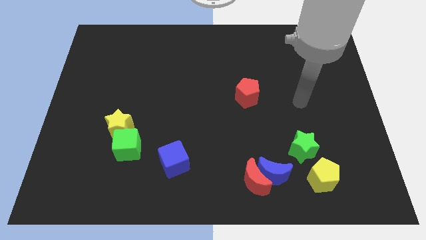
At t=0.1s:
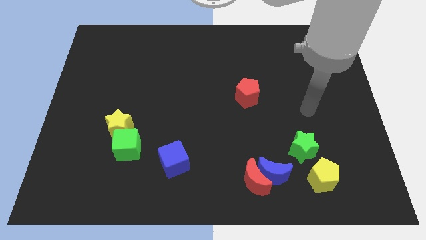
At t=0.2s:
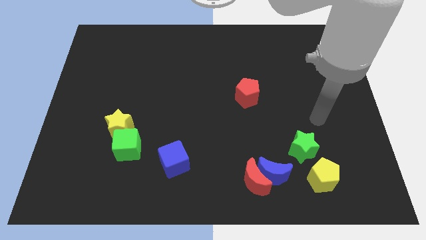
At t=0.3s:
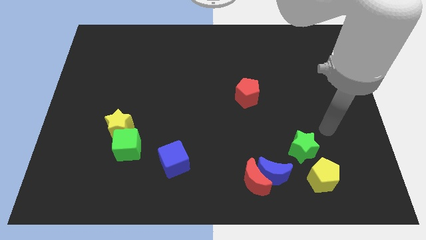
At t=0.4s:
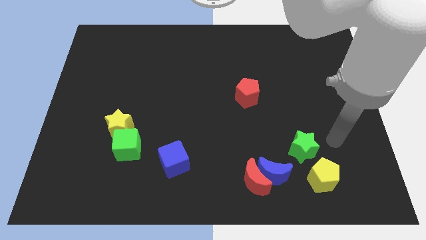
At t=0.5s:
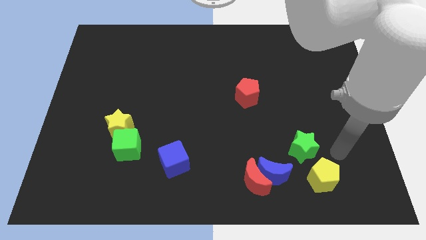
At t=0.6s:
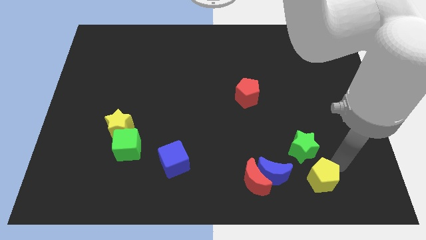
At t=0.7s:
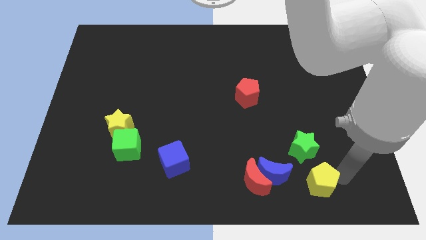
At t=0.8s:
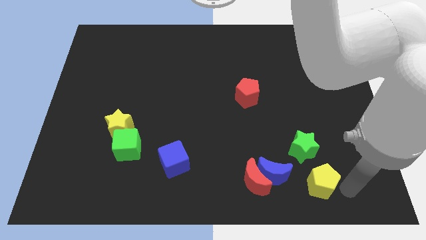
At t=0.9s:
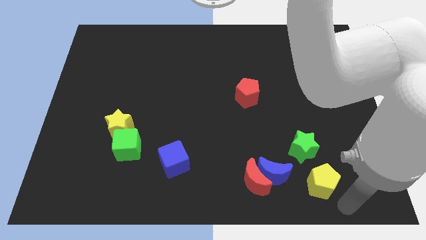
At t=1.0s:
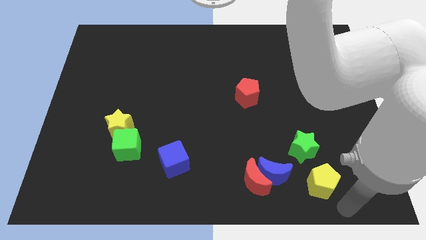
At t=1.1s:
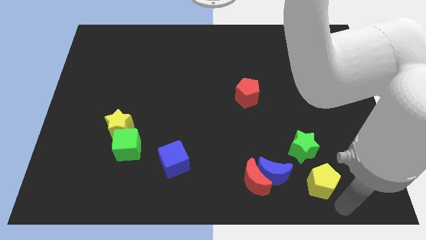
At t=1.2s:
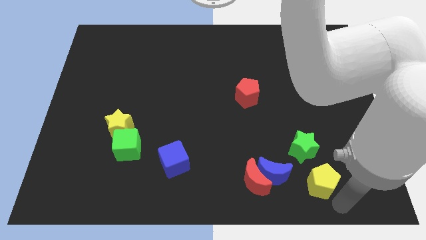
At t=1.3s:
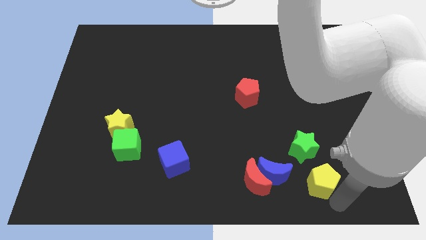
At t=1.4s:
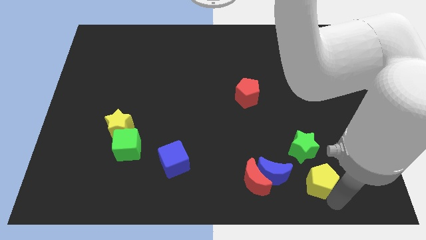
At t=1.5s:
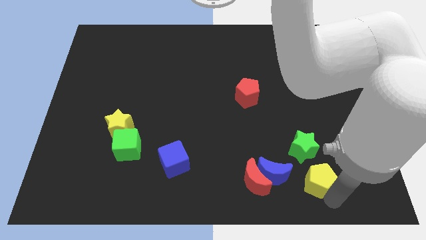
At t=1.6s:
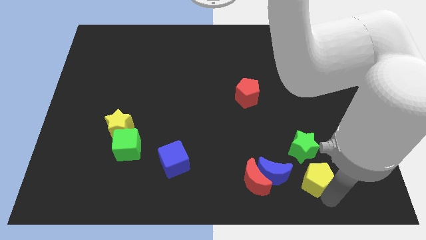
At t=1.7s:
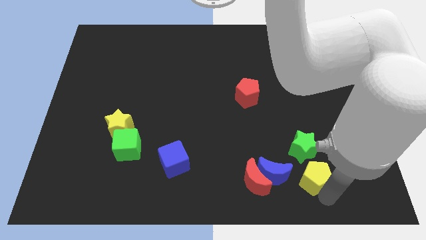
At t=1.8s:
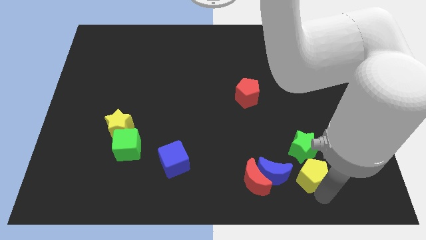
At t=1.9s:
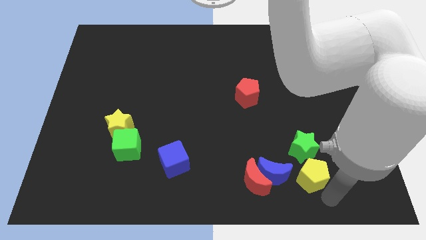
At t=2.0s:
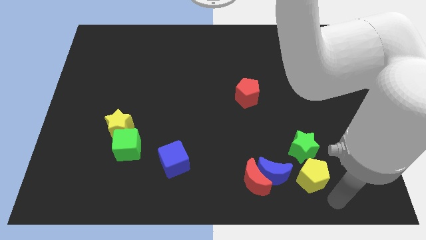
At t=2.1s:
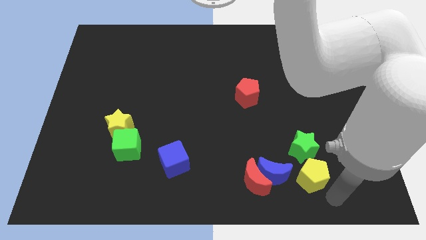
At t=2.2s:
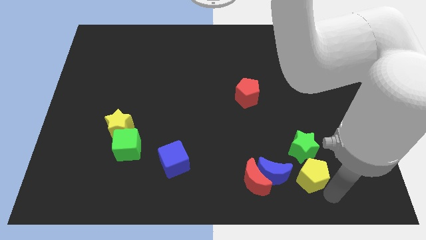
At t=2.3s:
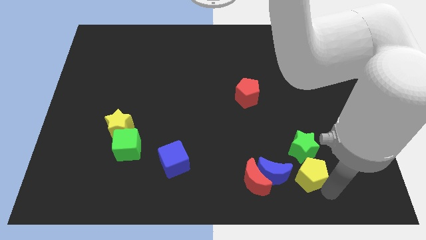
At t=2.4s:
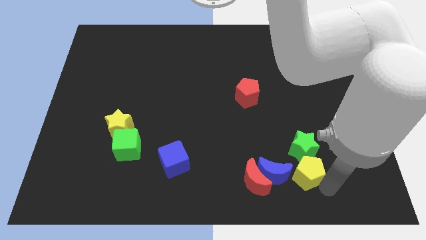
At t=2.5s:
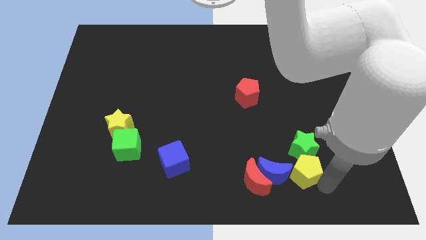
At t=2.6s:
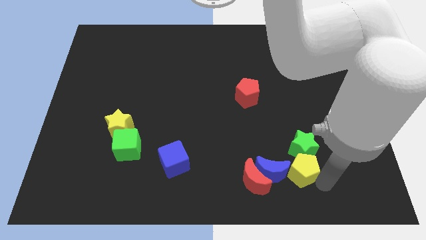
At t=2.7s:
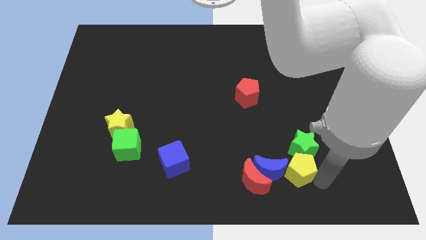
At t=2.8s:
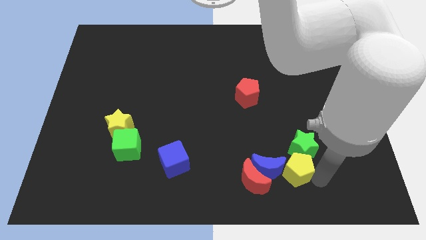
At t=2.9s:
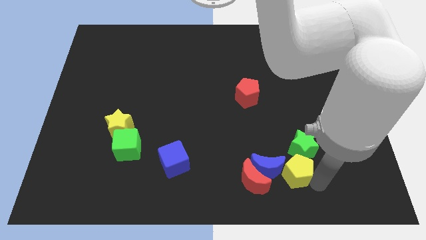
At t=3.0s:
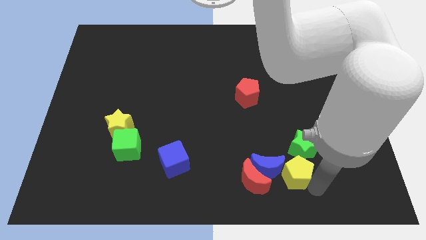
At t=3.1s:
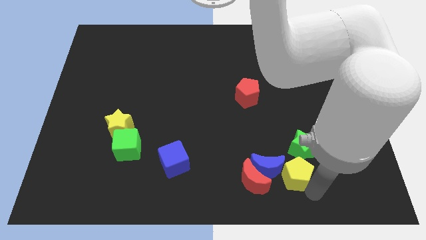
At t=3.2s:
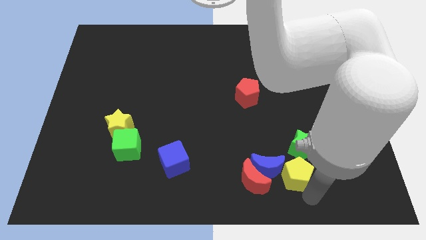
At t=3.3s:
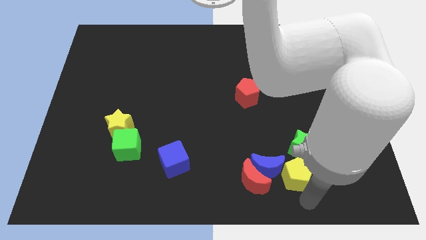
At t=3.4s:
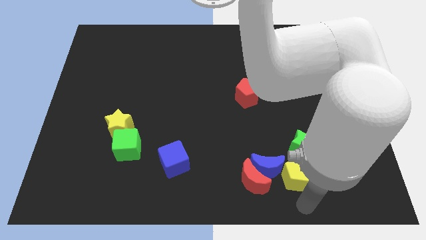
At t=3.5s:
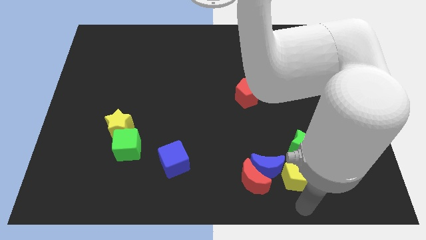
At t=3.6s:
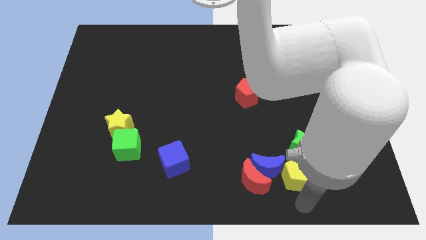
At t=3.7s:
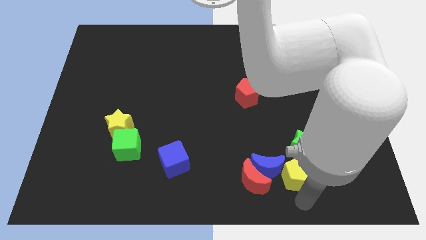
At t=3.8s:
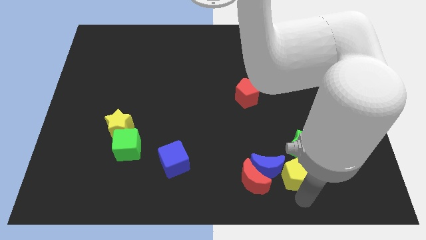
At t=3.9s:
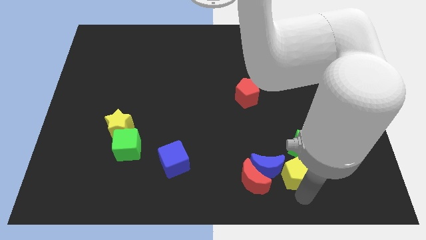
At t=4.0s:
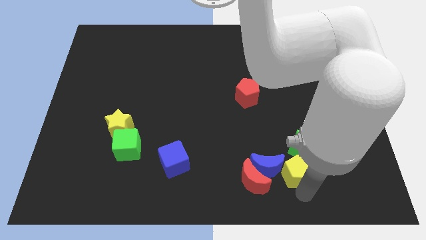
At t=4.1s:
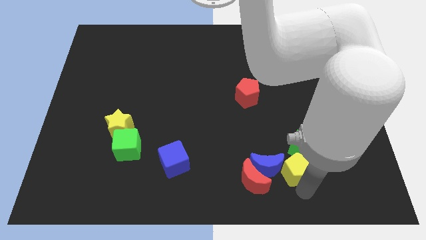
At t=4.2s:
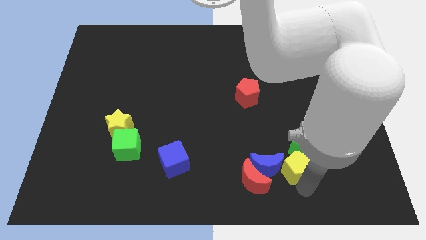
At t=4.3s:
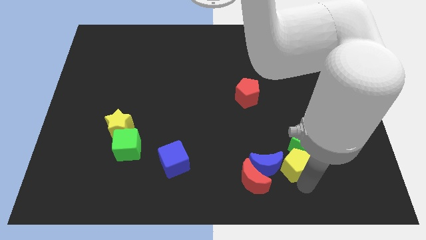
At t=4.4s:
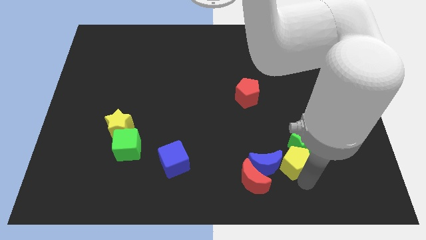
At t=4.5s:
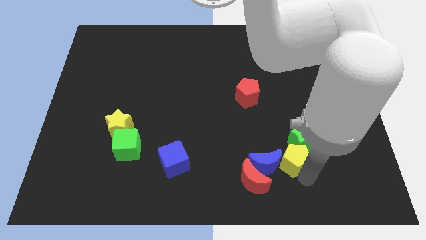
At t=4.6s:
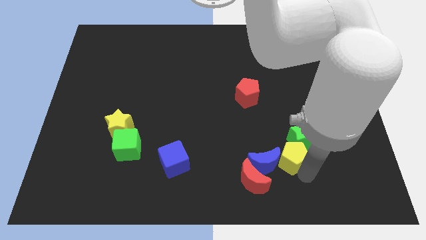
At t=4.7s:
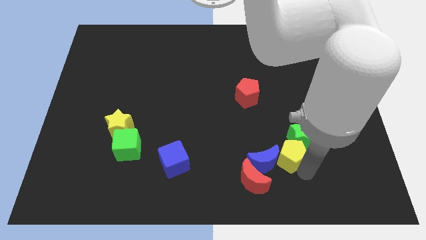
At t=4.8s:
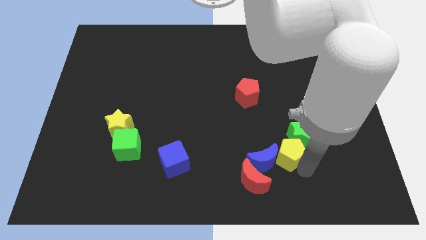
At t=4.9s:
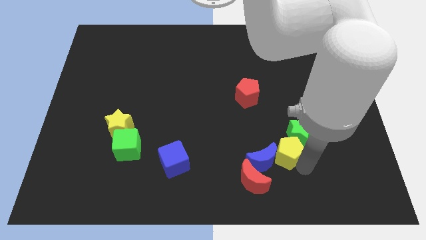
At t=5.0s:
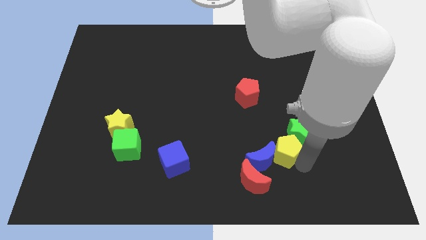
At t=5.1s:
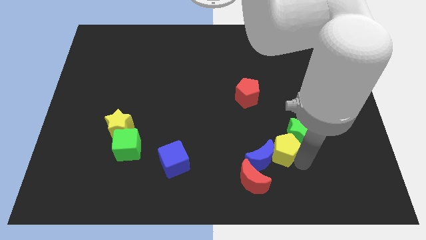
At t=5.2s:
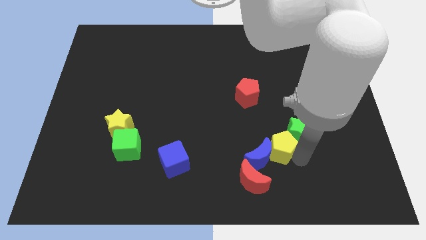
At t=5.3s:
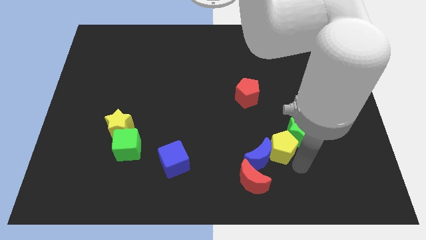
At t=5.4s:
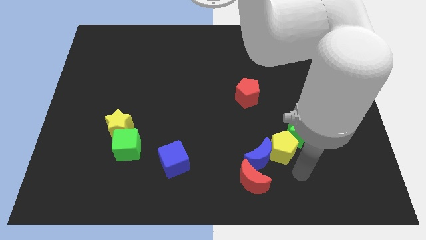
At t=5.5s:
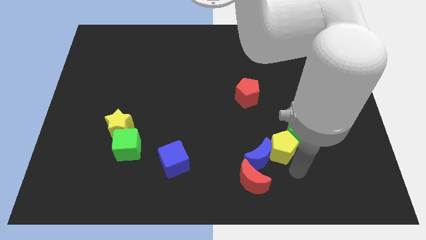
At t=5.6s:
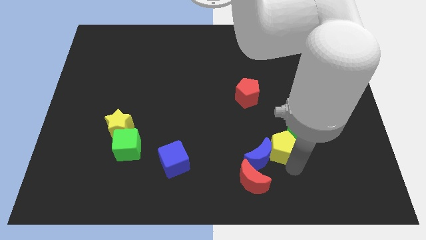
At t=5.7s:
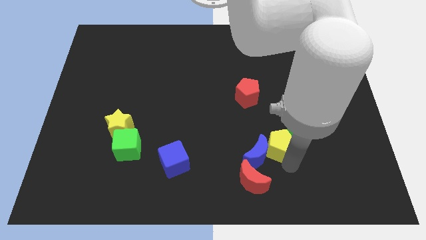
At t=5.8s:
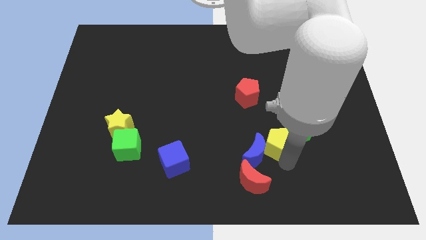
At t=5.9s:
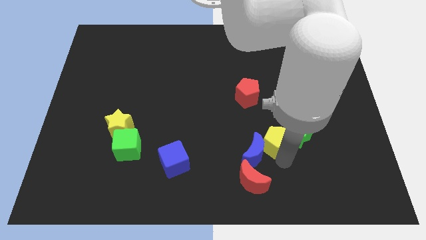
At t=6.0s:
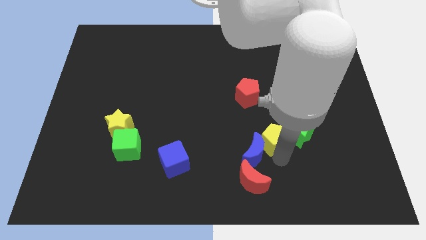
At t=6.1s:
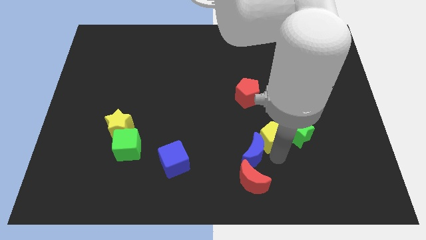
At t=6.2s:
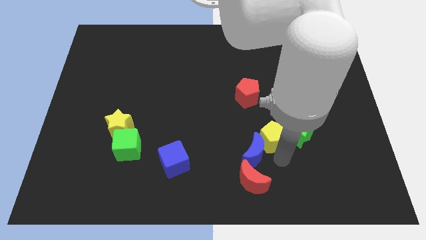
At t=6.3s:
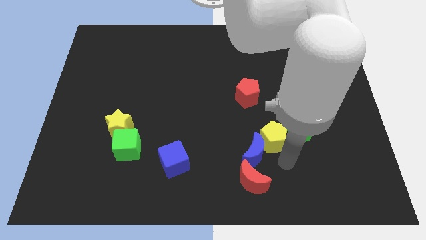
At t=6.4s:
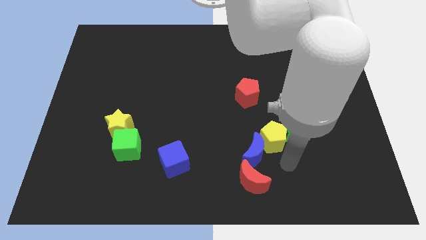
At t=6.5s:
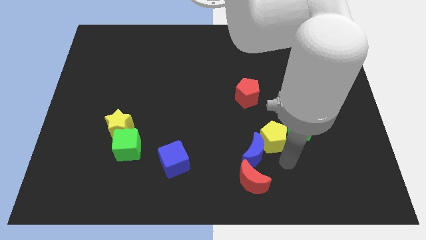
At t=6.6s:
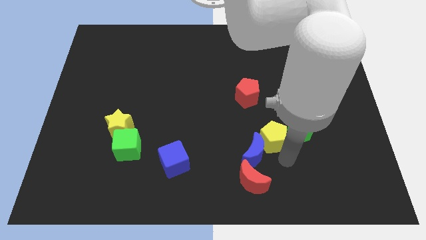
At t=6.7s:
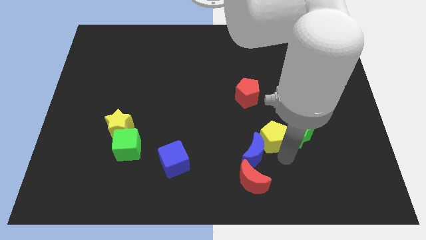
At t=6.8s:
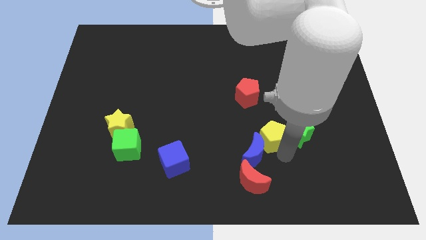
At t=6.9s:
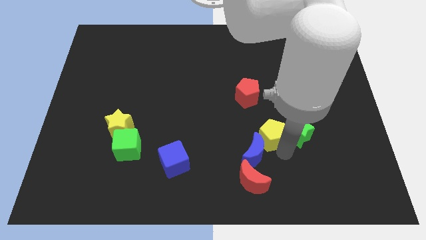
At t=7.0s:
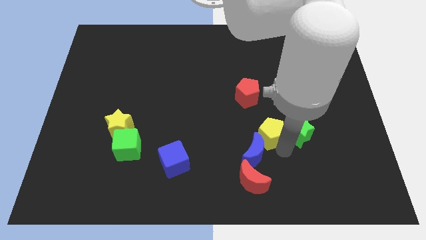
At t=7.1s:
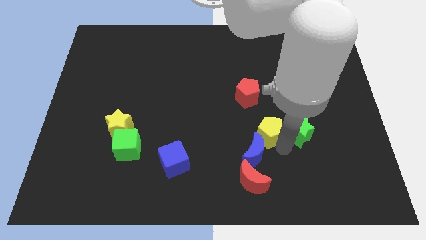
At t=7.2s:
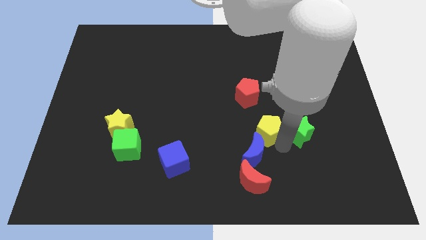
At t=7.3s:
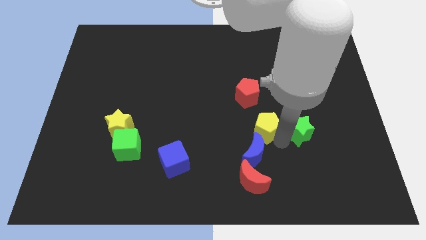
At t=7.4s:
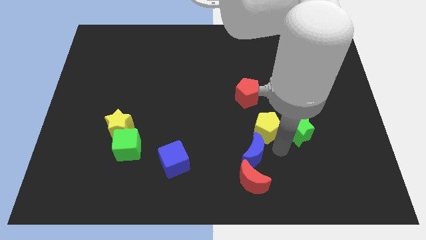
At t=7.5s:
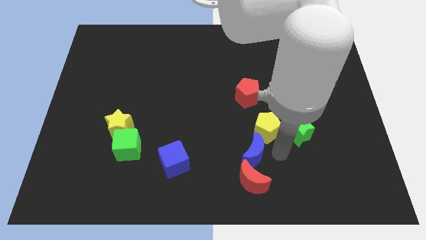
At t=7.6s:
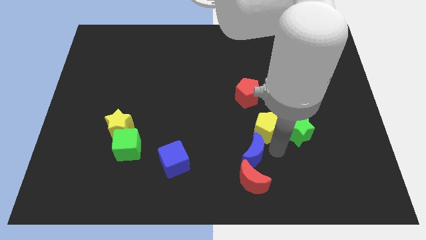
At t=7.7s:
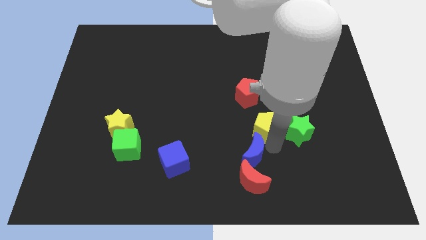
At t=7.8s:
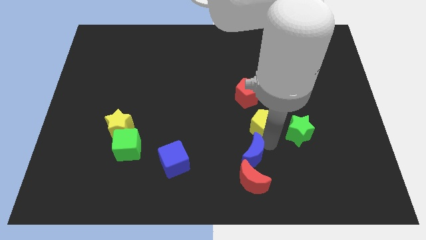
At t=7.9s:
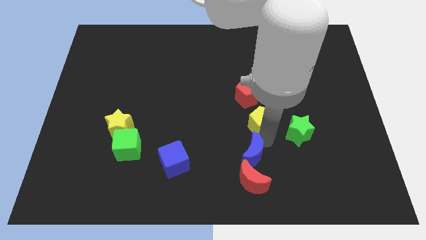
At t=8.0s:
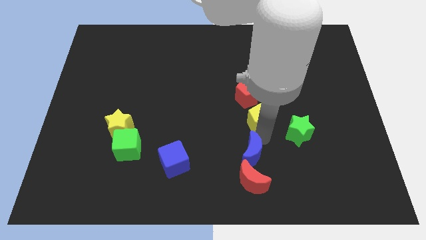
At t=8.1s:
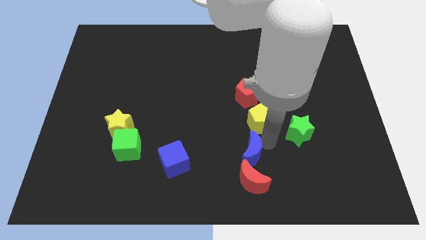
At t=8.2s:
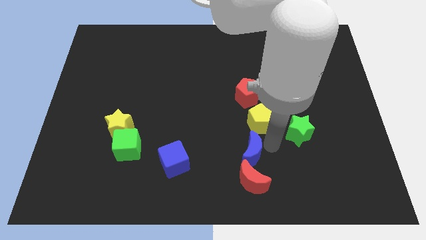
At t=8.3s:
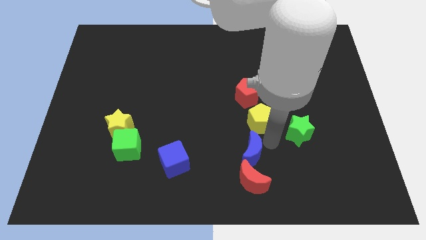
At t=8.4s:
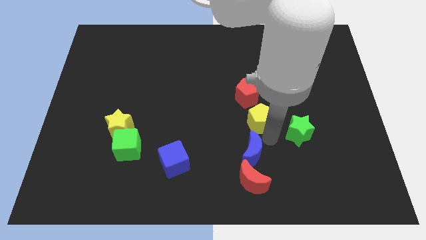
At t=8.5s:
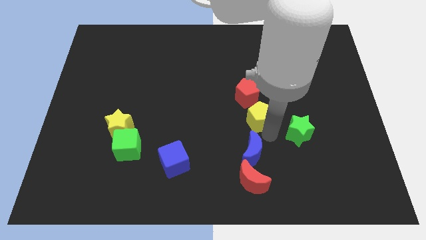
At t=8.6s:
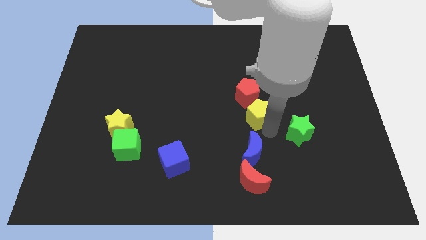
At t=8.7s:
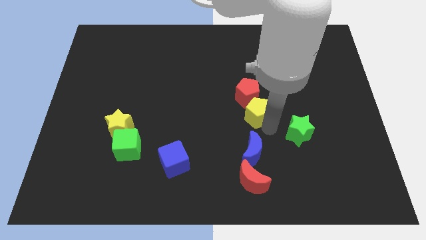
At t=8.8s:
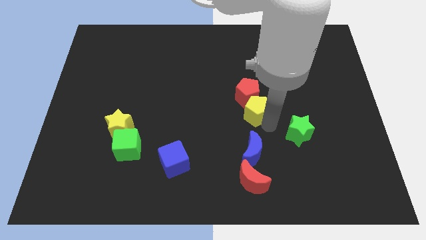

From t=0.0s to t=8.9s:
move the yellow pentagon to the red pentagon
